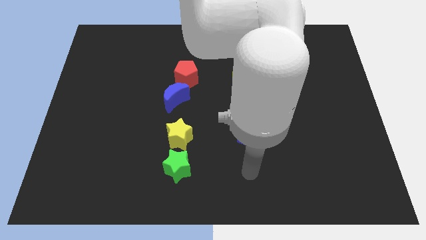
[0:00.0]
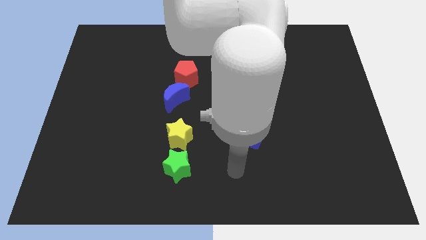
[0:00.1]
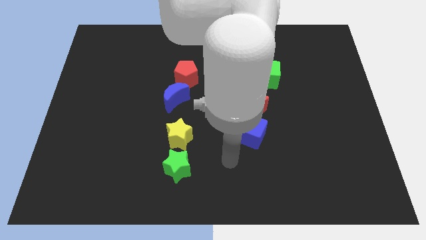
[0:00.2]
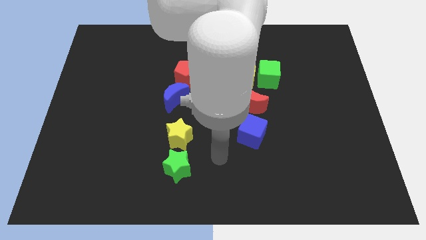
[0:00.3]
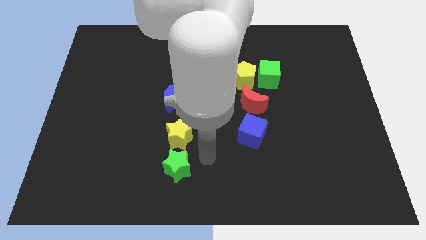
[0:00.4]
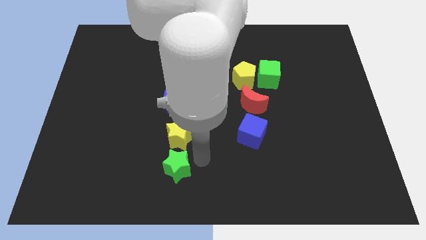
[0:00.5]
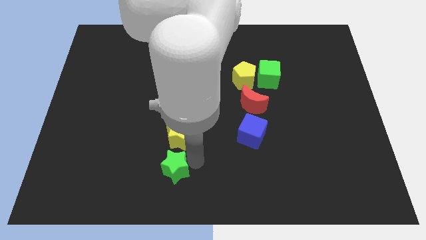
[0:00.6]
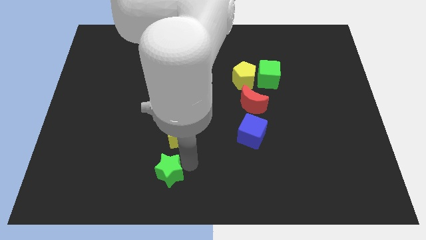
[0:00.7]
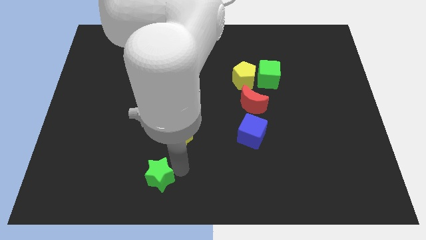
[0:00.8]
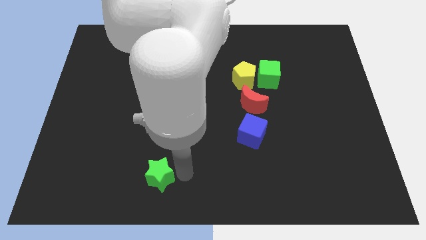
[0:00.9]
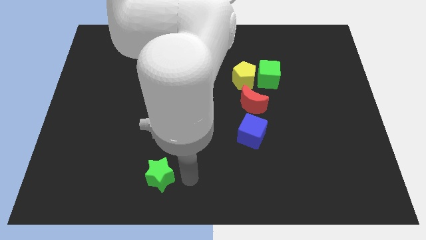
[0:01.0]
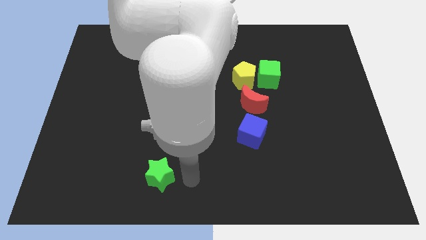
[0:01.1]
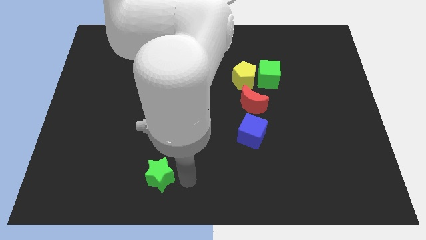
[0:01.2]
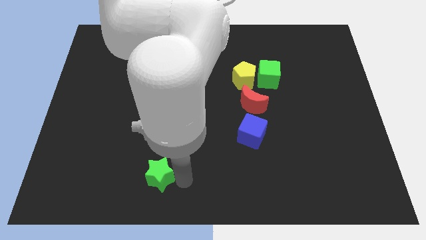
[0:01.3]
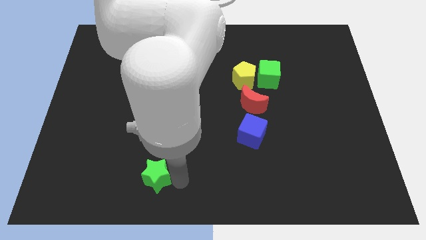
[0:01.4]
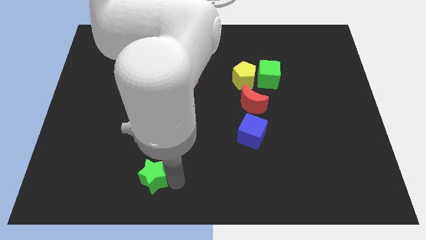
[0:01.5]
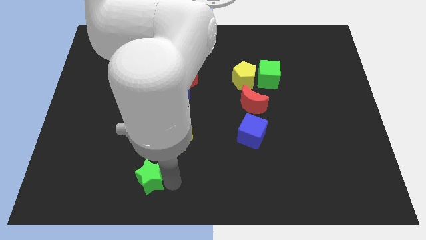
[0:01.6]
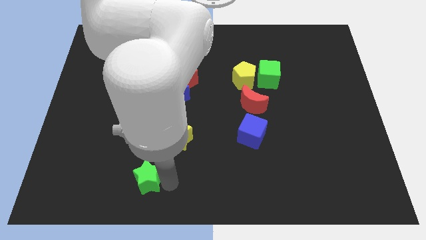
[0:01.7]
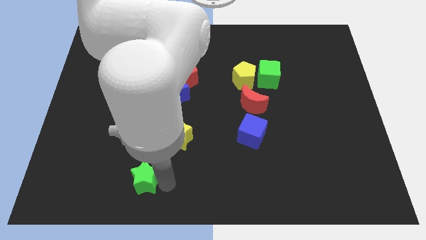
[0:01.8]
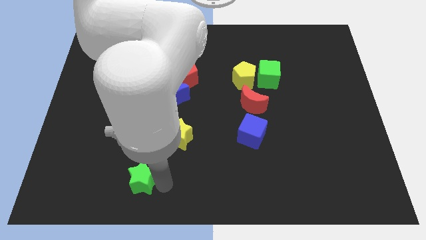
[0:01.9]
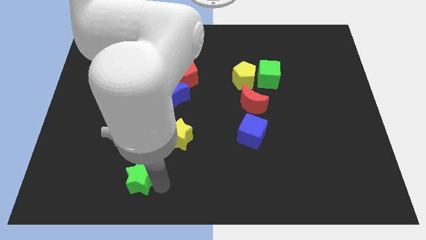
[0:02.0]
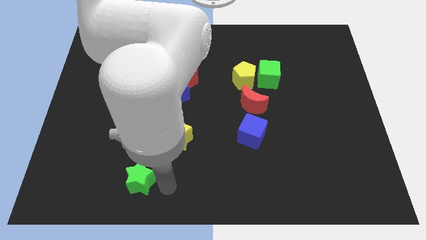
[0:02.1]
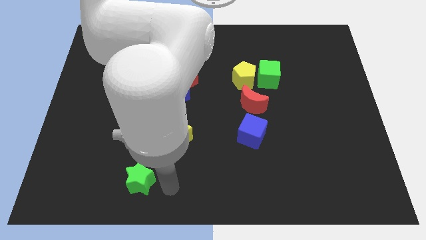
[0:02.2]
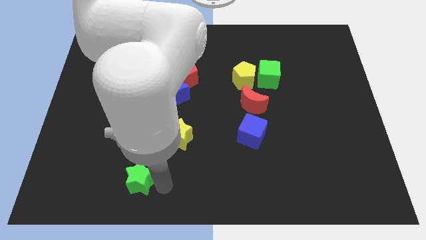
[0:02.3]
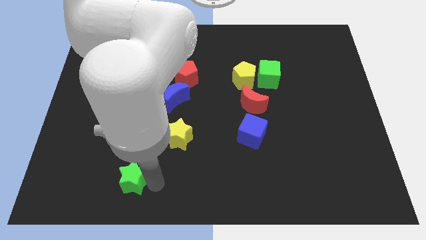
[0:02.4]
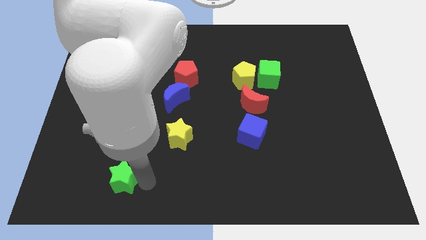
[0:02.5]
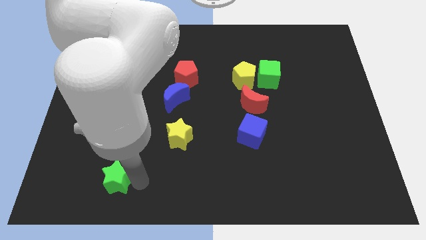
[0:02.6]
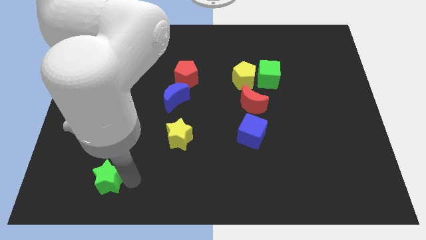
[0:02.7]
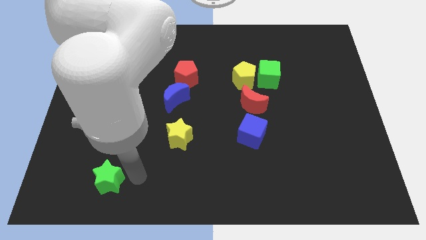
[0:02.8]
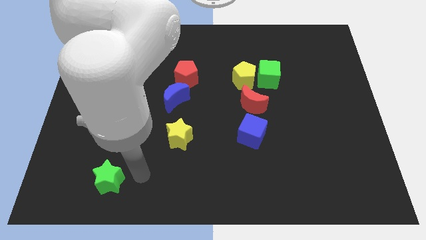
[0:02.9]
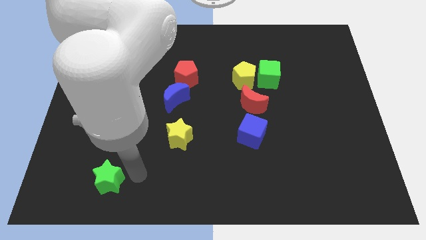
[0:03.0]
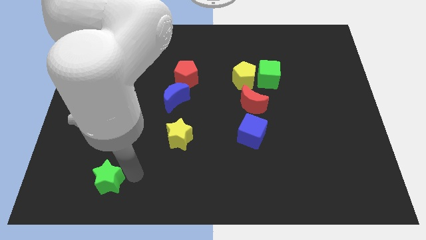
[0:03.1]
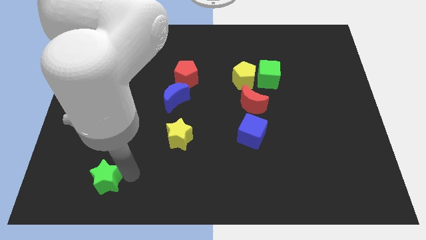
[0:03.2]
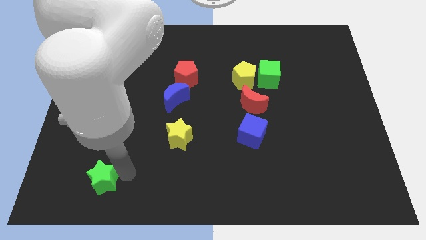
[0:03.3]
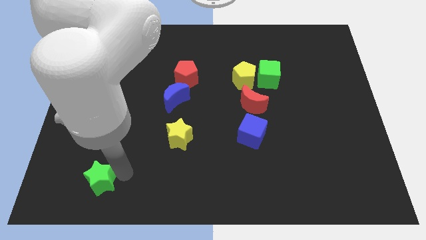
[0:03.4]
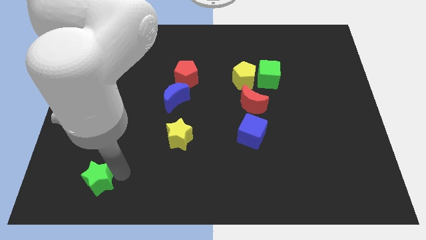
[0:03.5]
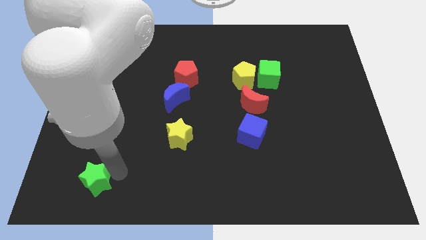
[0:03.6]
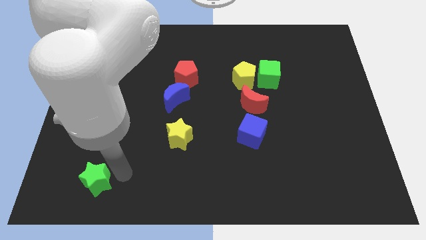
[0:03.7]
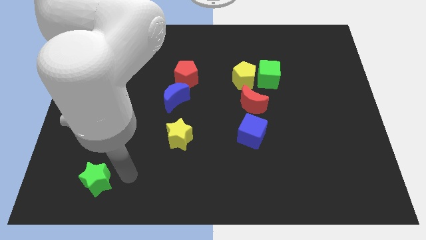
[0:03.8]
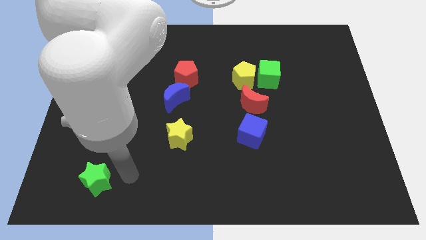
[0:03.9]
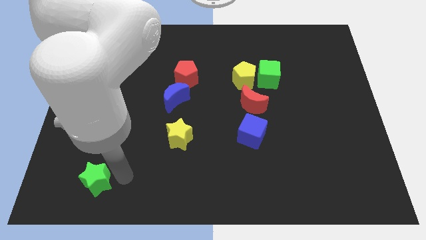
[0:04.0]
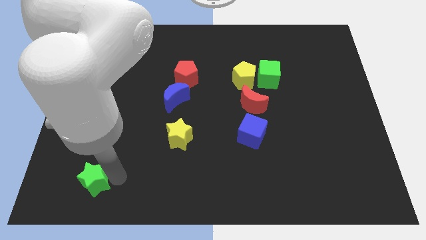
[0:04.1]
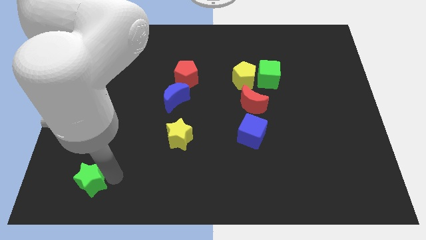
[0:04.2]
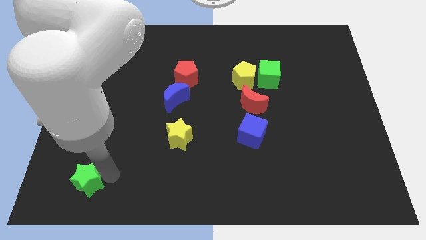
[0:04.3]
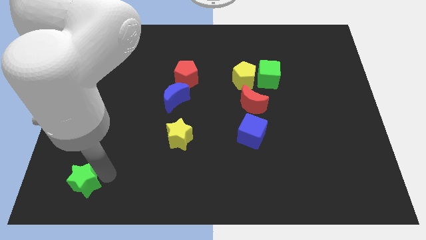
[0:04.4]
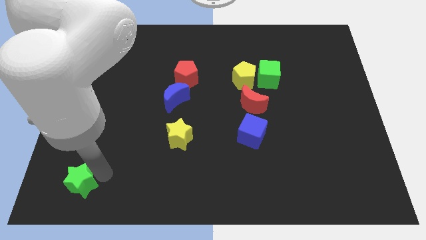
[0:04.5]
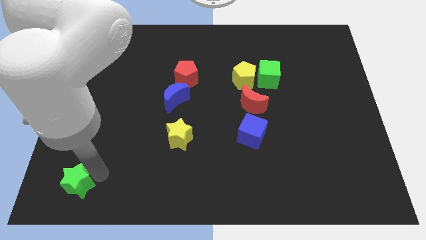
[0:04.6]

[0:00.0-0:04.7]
push the green star to the bottom left of the board

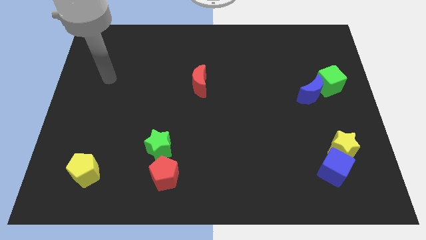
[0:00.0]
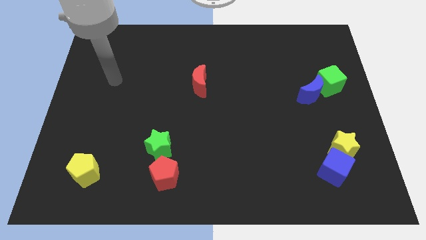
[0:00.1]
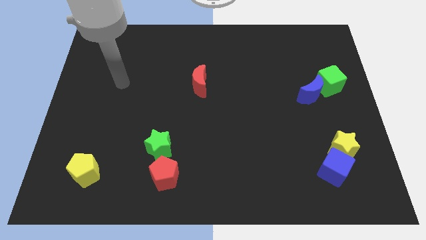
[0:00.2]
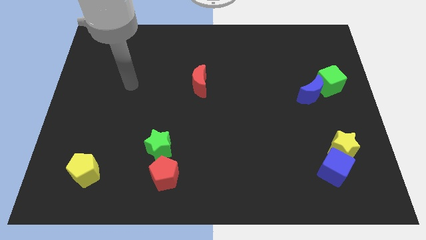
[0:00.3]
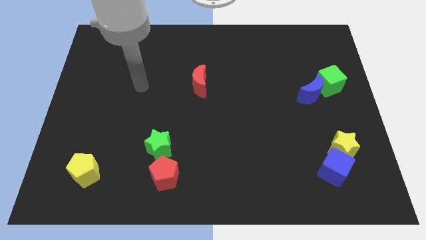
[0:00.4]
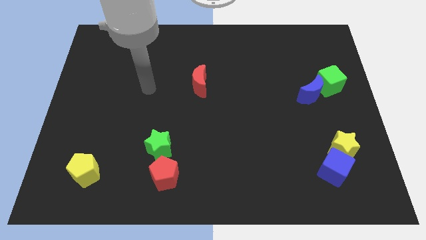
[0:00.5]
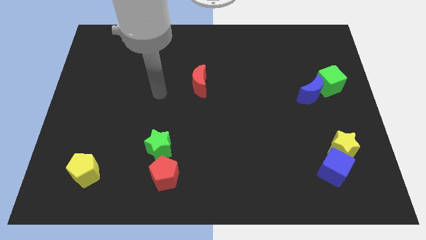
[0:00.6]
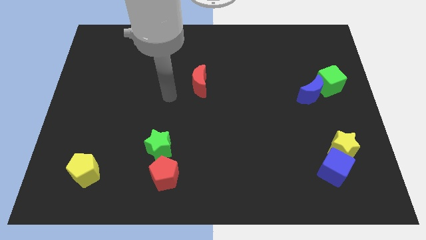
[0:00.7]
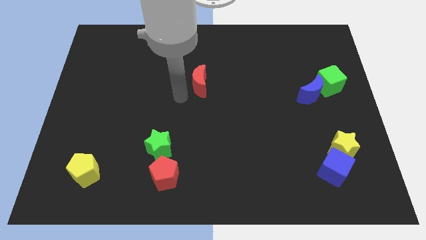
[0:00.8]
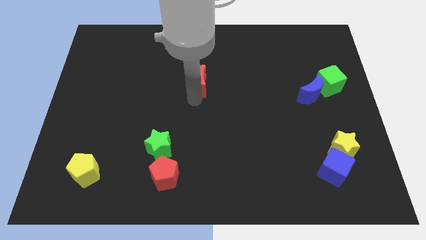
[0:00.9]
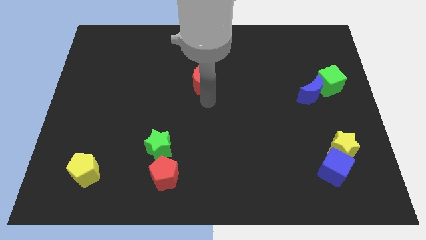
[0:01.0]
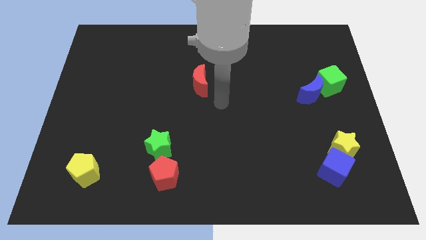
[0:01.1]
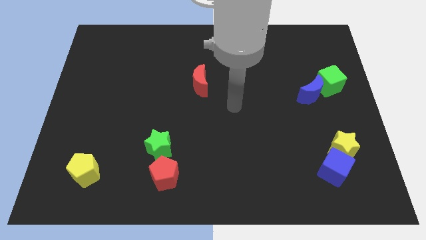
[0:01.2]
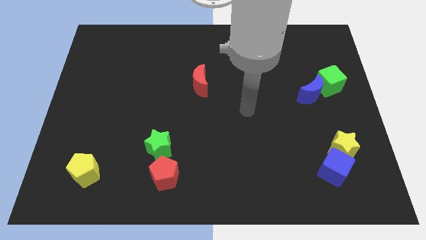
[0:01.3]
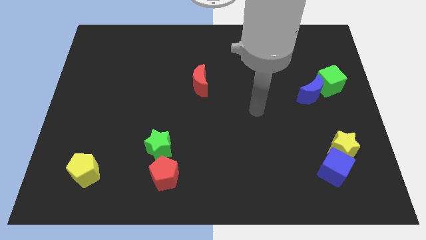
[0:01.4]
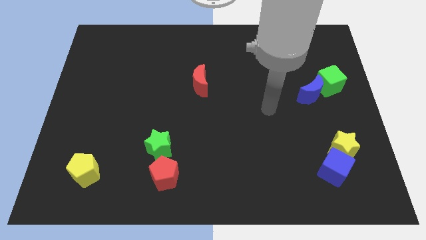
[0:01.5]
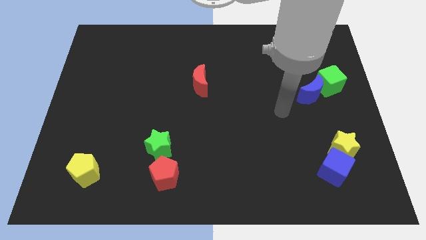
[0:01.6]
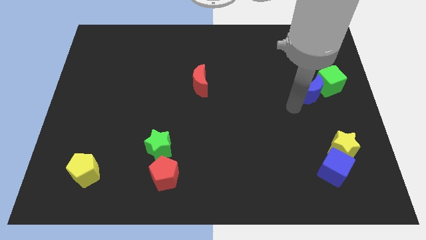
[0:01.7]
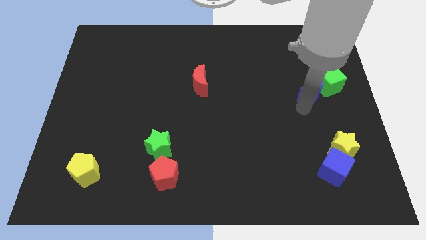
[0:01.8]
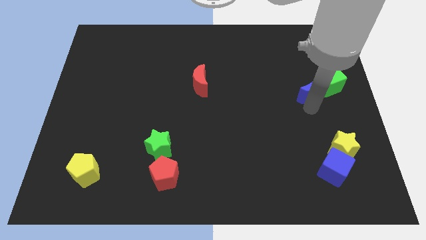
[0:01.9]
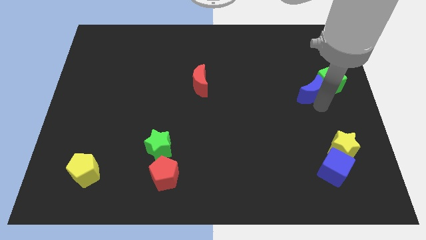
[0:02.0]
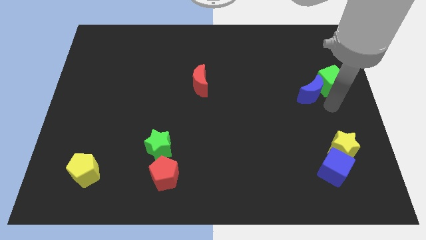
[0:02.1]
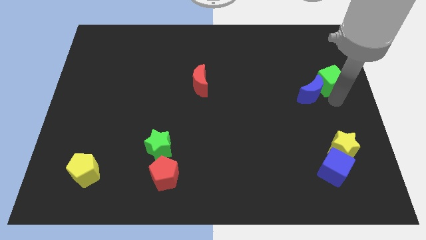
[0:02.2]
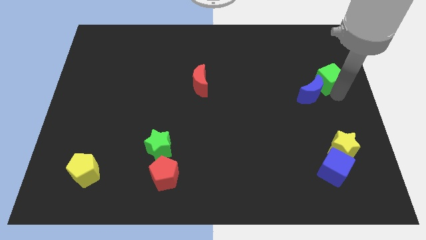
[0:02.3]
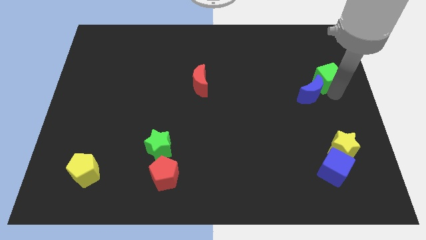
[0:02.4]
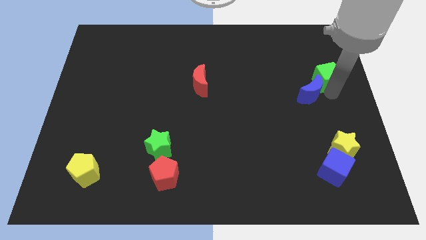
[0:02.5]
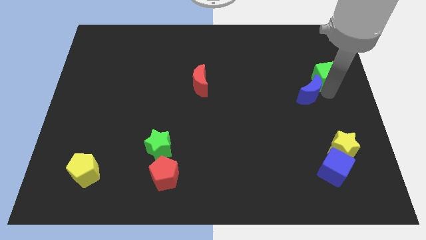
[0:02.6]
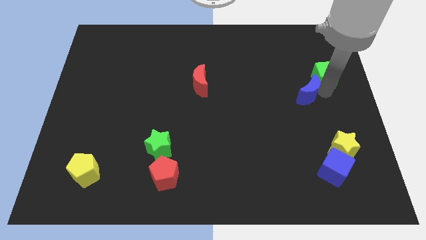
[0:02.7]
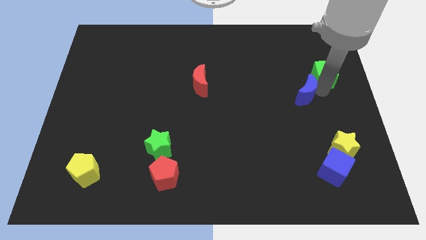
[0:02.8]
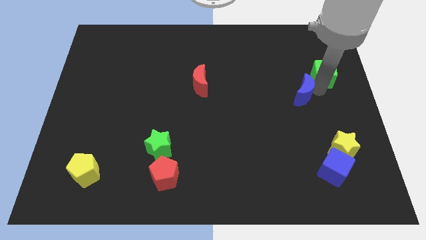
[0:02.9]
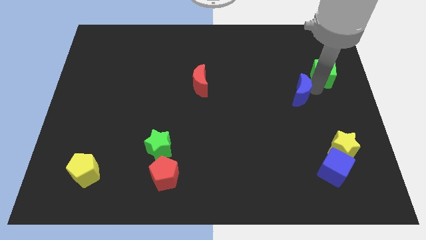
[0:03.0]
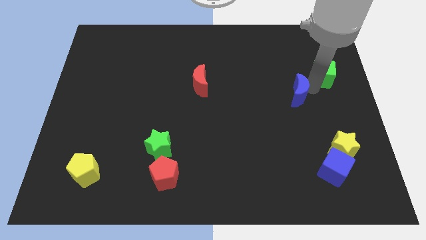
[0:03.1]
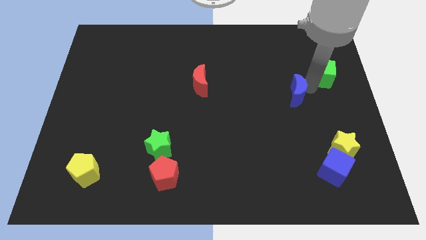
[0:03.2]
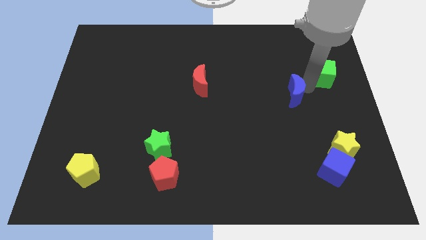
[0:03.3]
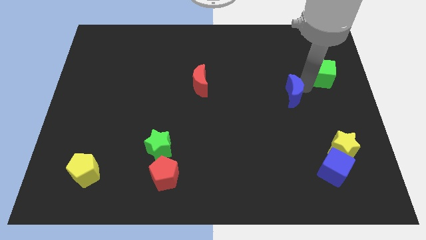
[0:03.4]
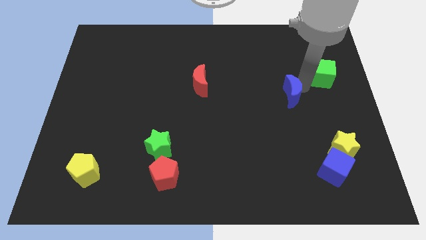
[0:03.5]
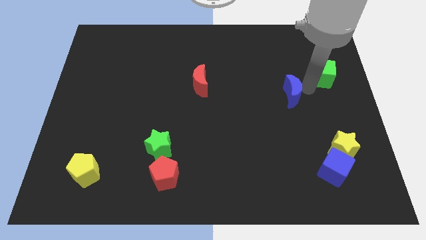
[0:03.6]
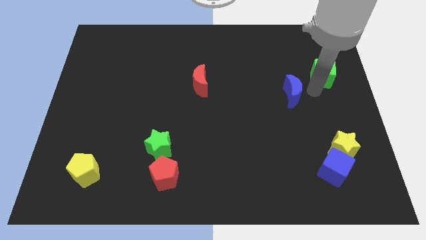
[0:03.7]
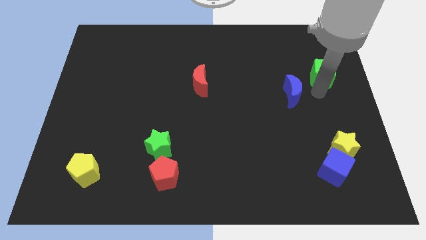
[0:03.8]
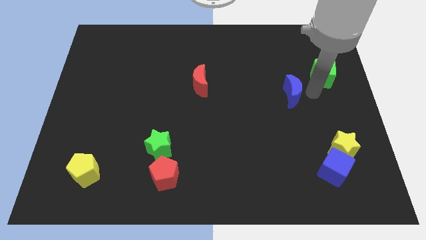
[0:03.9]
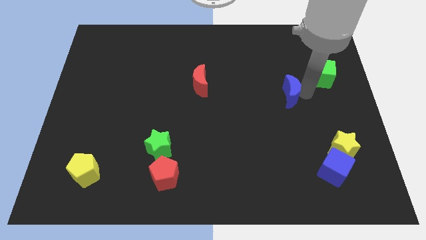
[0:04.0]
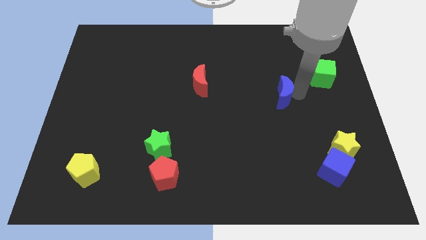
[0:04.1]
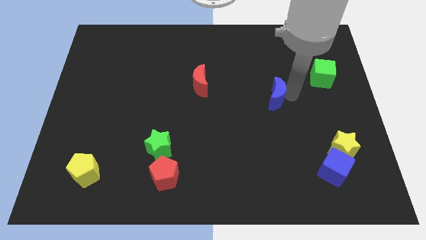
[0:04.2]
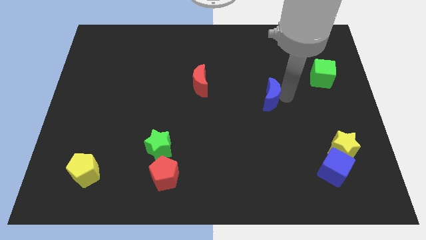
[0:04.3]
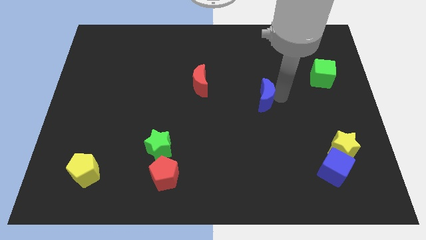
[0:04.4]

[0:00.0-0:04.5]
slide the blue moon to the middle
